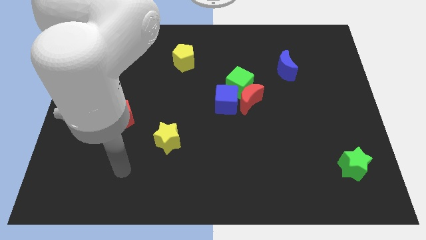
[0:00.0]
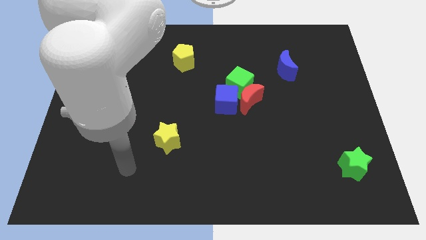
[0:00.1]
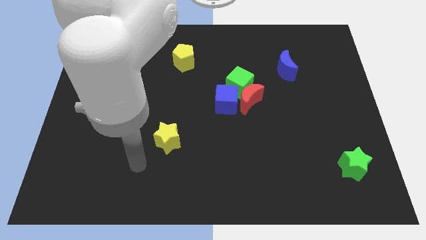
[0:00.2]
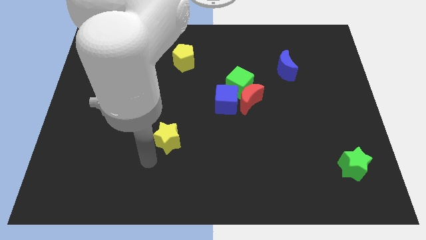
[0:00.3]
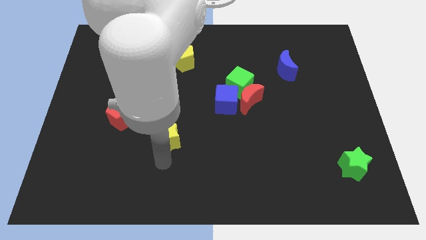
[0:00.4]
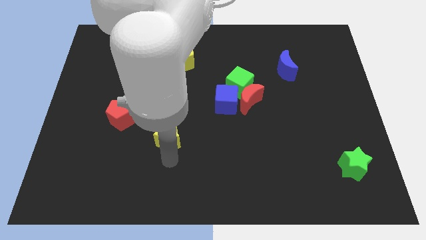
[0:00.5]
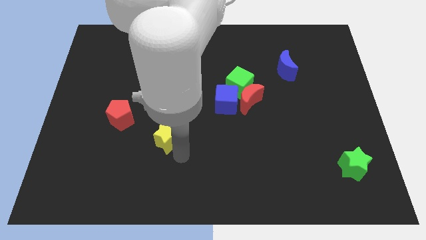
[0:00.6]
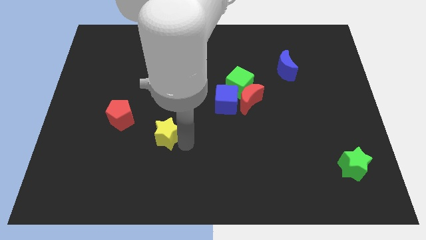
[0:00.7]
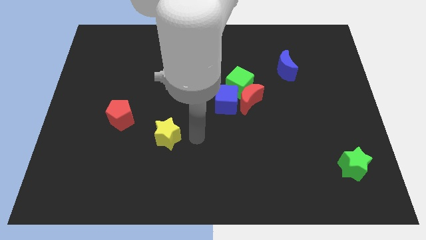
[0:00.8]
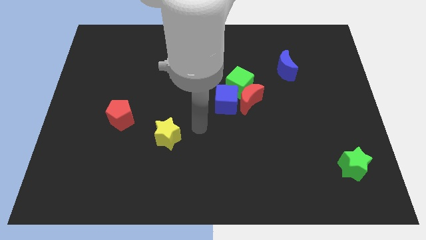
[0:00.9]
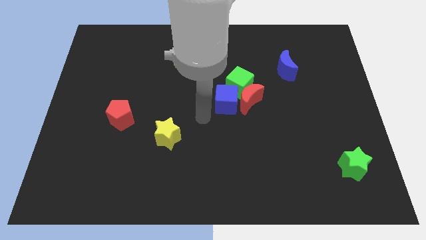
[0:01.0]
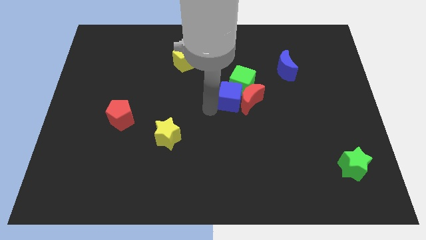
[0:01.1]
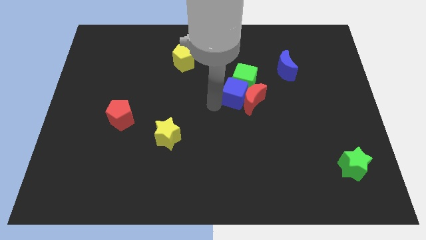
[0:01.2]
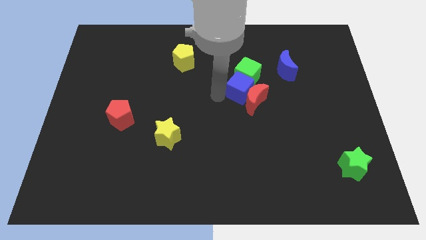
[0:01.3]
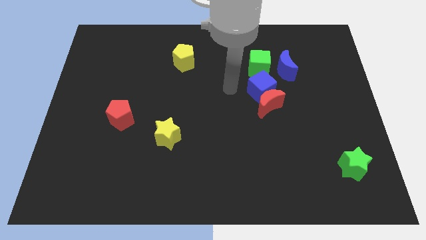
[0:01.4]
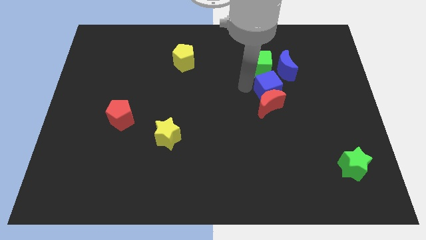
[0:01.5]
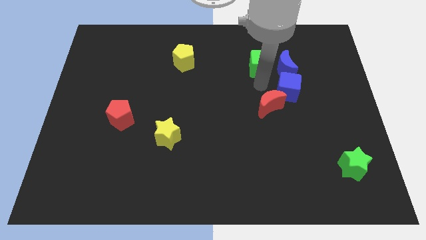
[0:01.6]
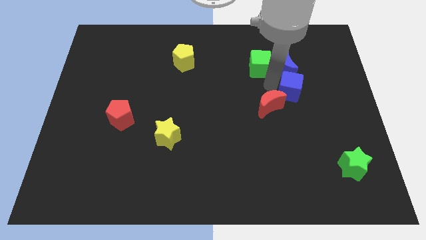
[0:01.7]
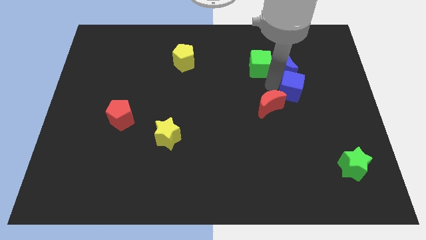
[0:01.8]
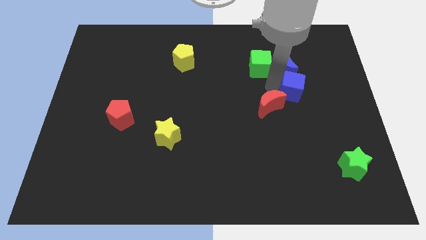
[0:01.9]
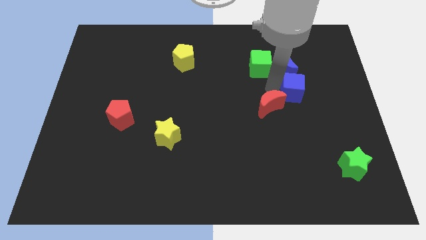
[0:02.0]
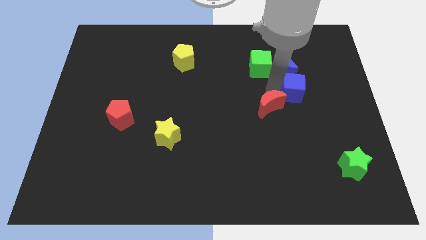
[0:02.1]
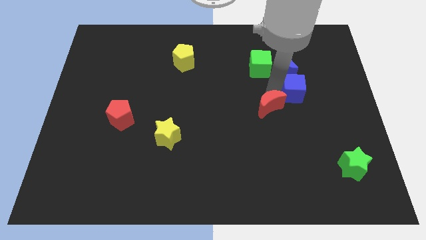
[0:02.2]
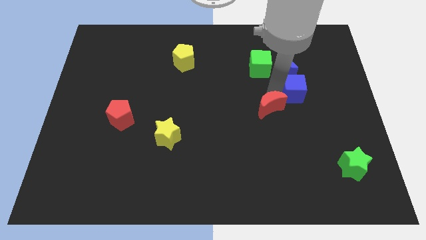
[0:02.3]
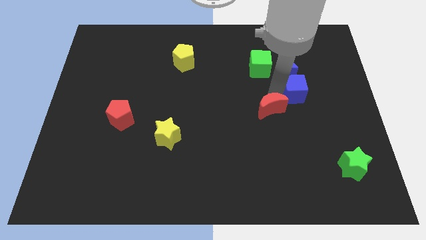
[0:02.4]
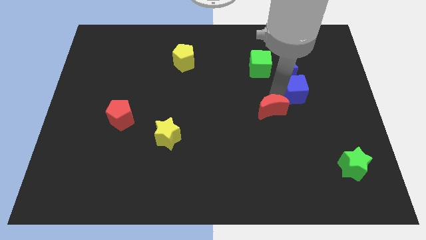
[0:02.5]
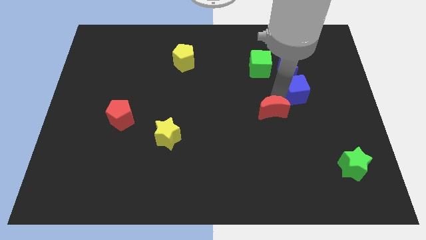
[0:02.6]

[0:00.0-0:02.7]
separate the red moon from the green cube and blue cube

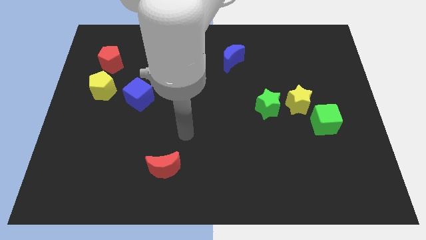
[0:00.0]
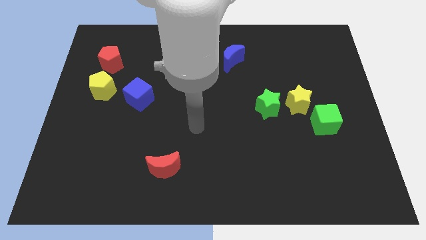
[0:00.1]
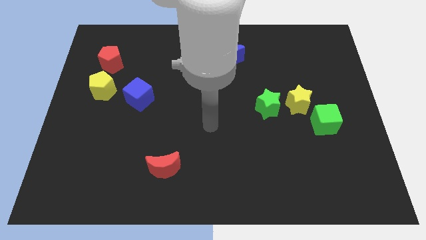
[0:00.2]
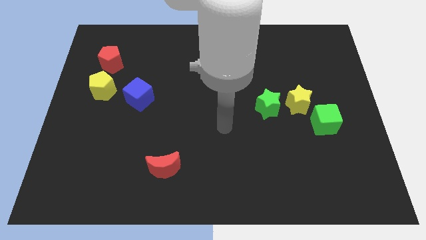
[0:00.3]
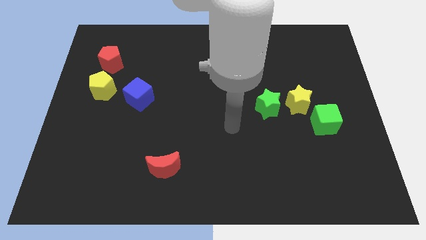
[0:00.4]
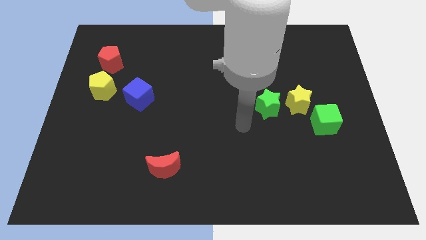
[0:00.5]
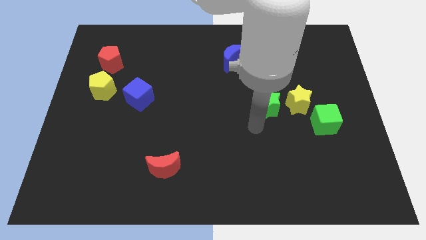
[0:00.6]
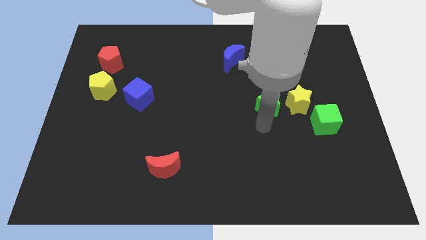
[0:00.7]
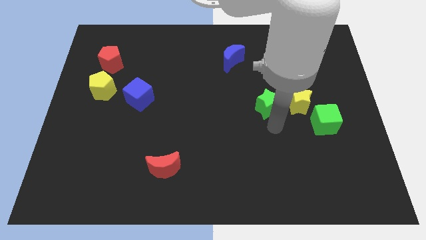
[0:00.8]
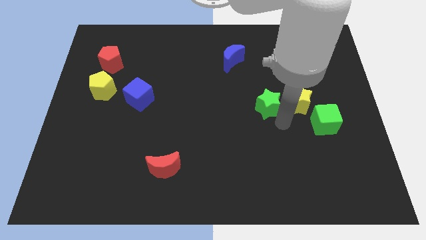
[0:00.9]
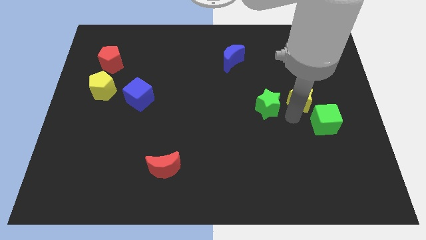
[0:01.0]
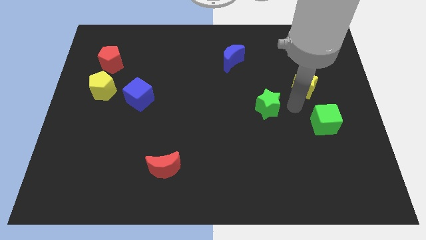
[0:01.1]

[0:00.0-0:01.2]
pull the green star apart from the yellow star

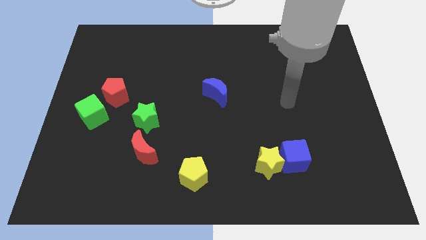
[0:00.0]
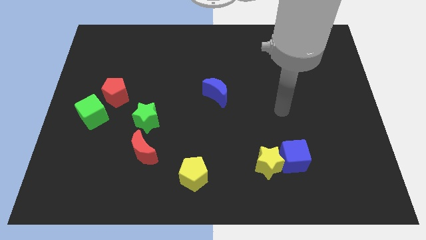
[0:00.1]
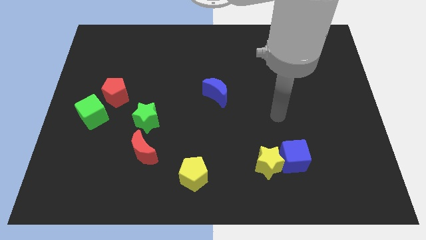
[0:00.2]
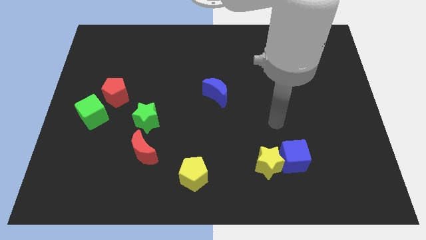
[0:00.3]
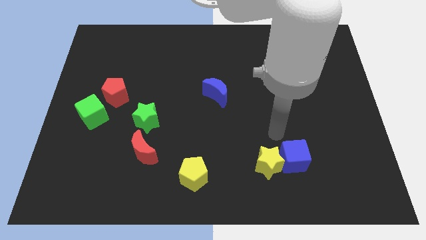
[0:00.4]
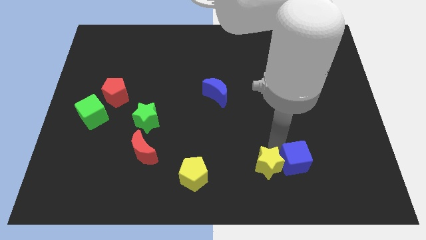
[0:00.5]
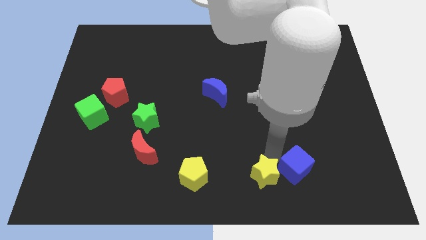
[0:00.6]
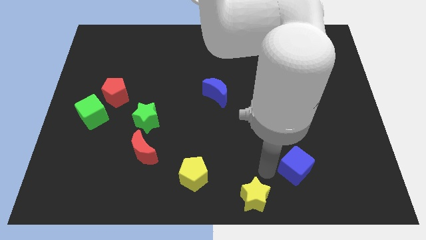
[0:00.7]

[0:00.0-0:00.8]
separate the blue cube from the yellow star

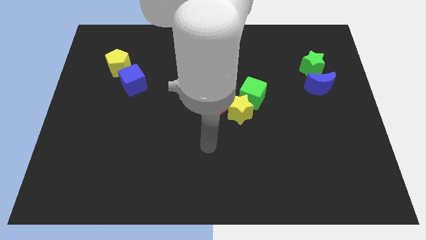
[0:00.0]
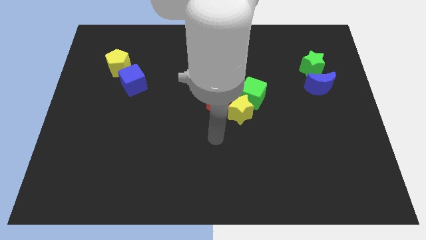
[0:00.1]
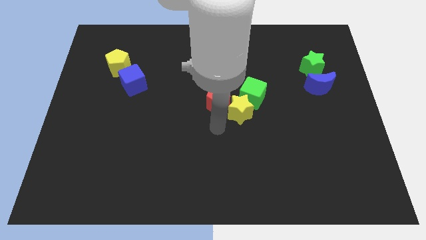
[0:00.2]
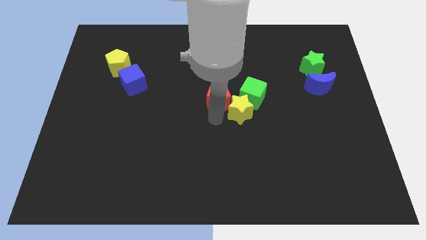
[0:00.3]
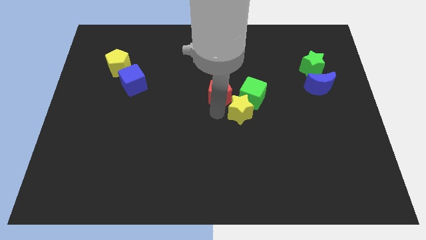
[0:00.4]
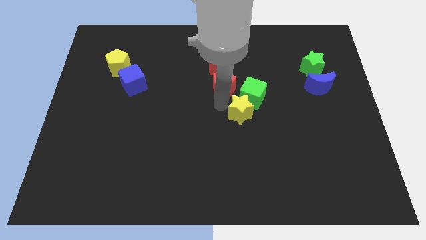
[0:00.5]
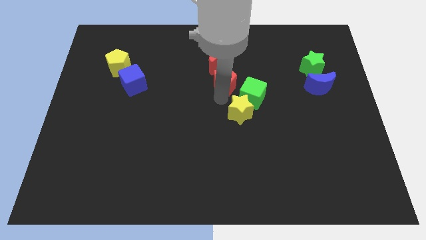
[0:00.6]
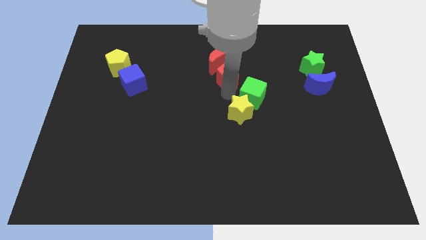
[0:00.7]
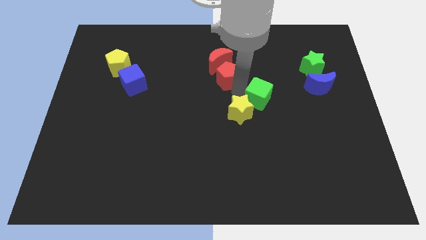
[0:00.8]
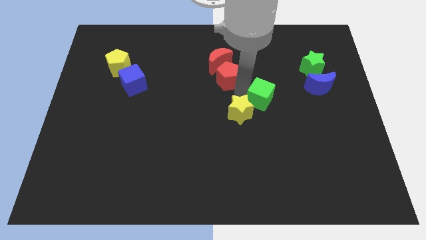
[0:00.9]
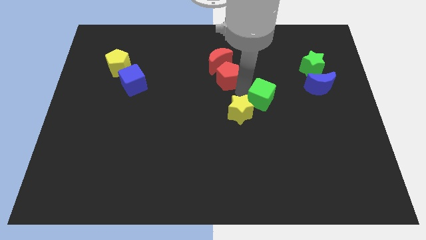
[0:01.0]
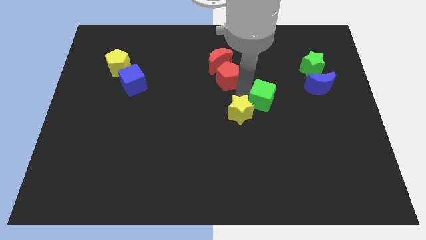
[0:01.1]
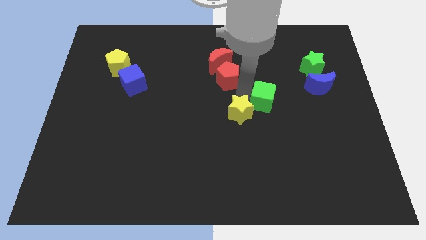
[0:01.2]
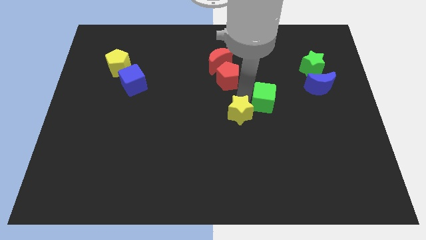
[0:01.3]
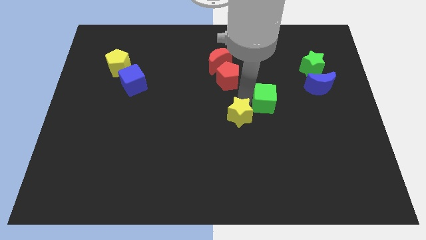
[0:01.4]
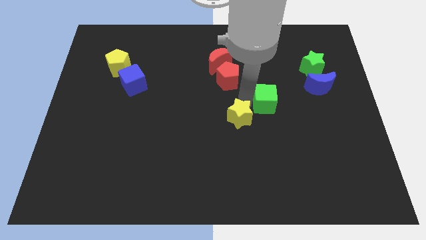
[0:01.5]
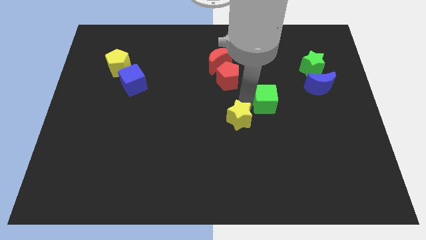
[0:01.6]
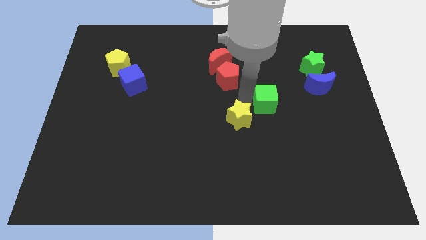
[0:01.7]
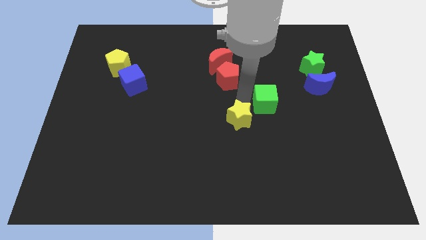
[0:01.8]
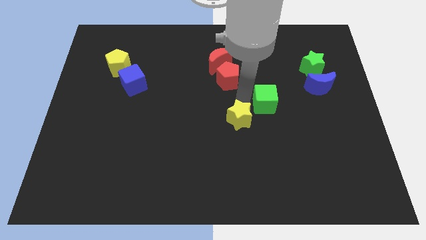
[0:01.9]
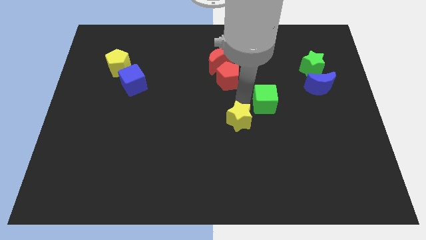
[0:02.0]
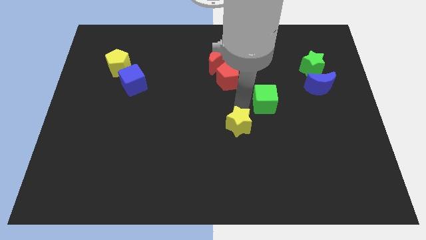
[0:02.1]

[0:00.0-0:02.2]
pull the yellow star apart from the red pentagon and green cube

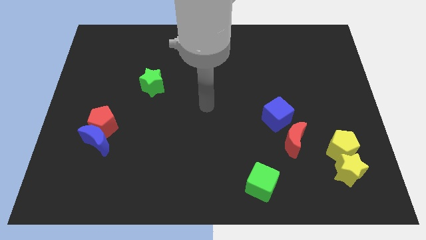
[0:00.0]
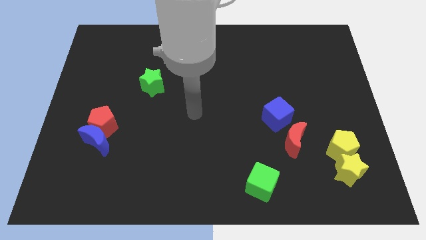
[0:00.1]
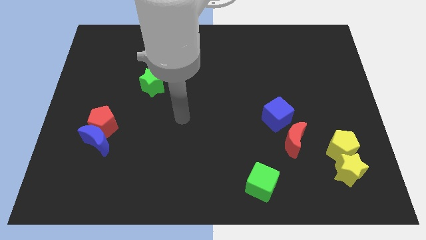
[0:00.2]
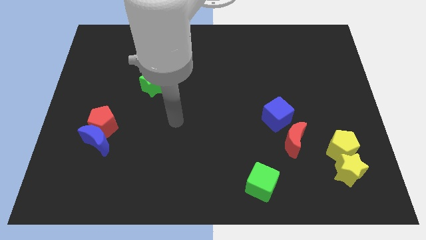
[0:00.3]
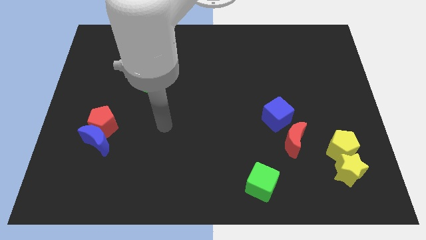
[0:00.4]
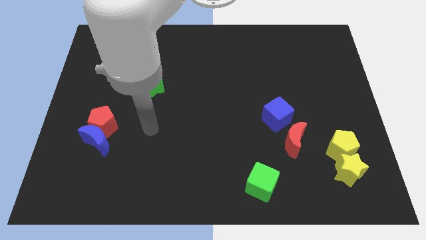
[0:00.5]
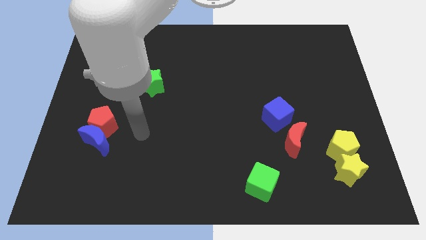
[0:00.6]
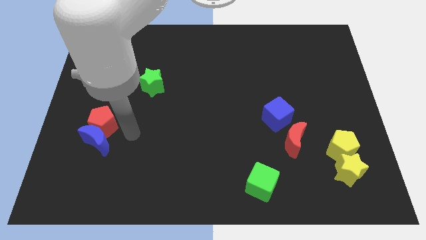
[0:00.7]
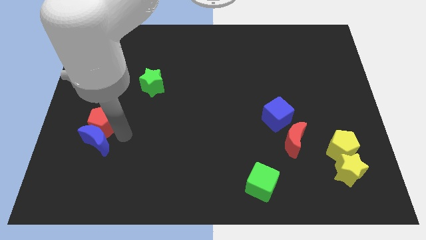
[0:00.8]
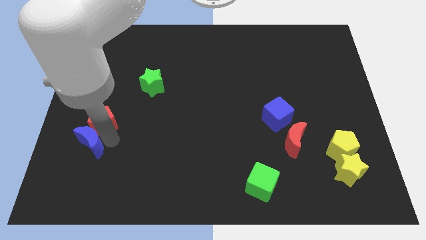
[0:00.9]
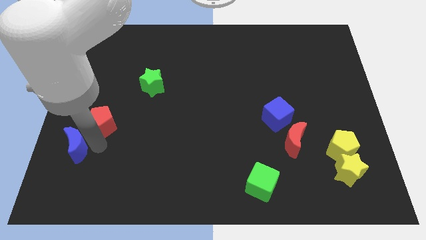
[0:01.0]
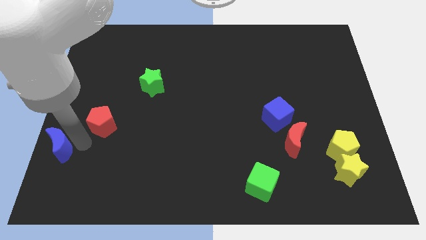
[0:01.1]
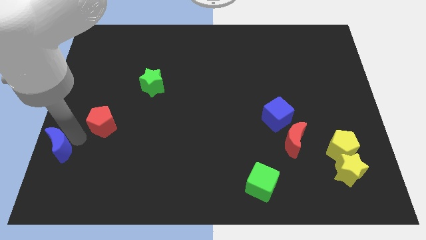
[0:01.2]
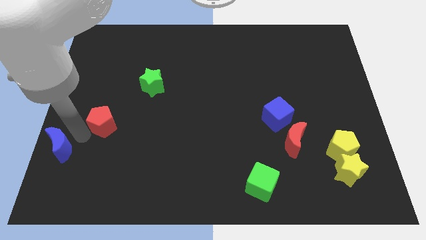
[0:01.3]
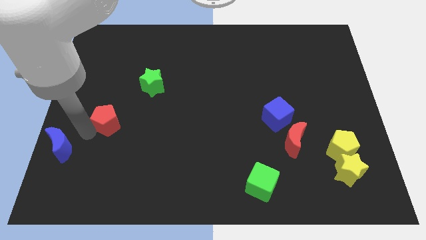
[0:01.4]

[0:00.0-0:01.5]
move the red pentagon away from the blue moon

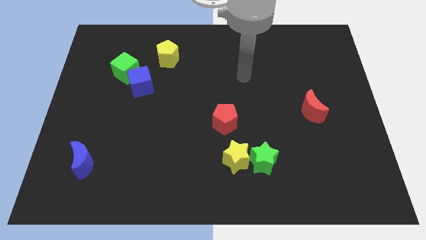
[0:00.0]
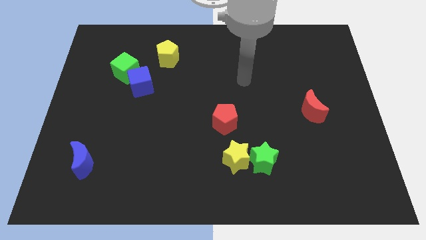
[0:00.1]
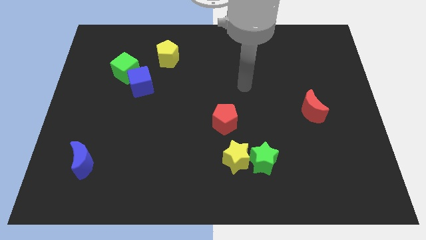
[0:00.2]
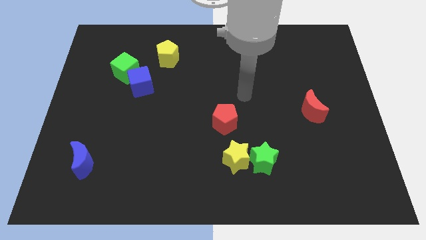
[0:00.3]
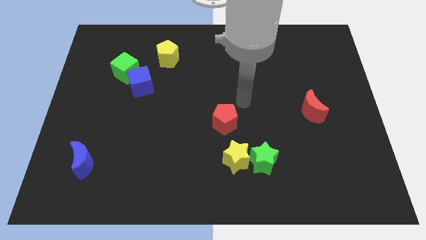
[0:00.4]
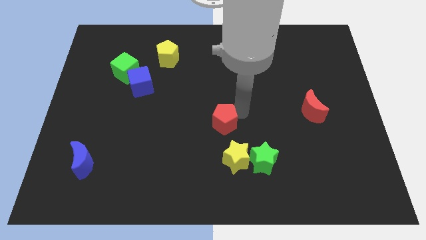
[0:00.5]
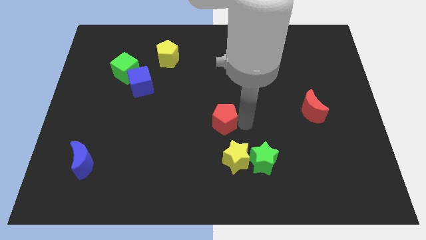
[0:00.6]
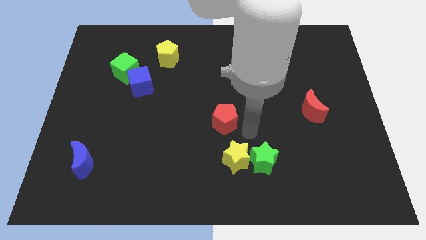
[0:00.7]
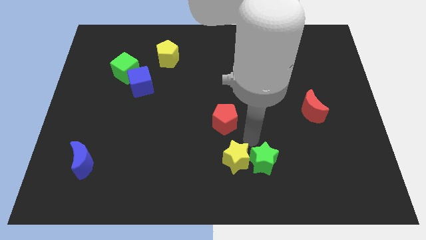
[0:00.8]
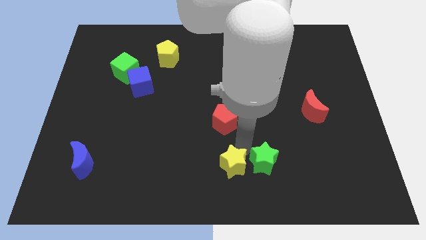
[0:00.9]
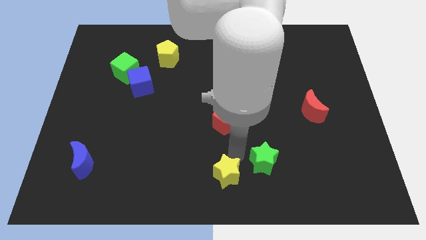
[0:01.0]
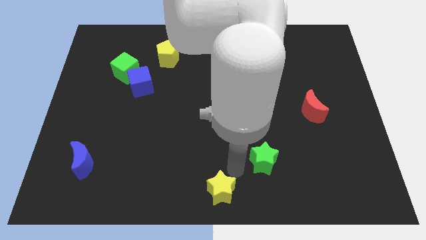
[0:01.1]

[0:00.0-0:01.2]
move the green star away from the yellow star
